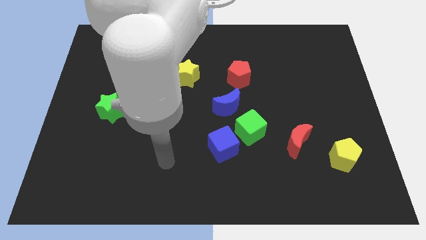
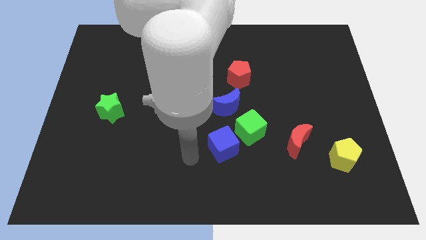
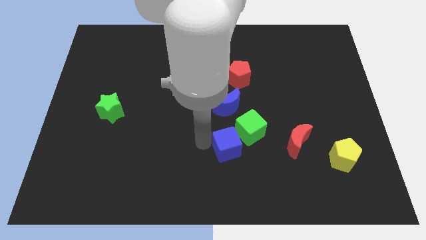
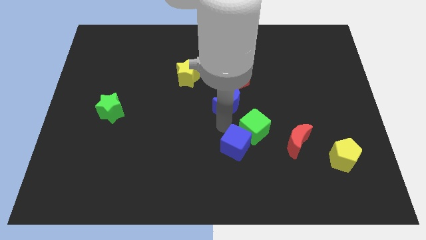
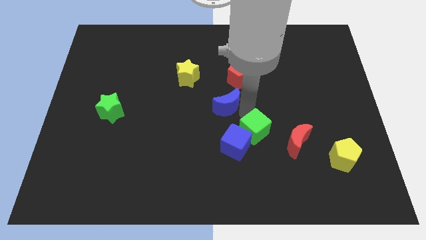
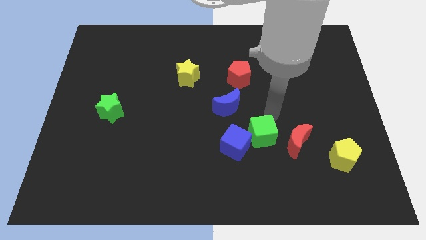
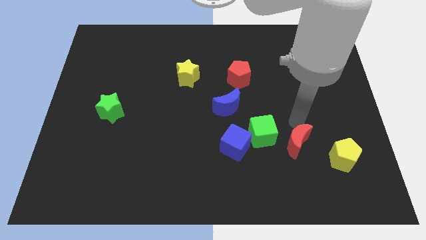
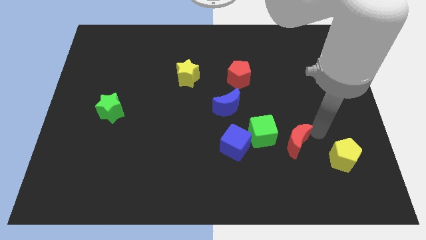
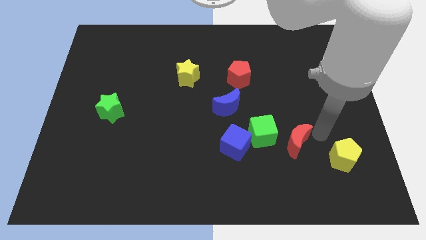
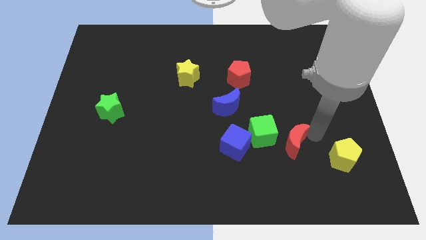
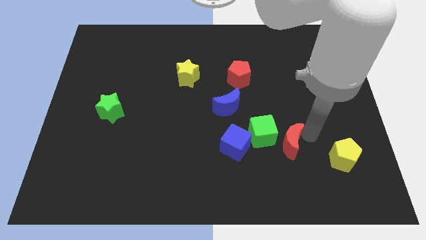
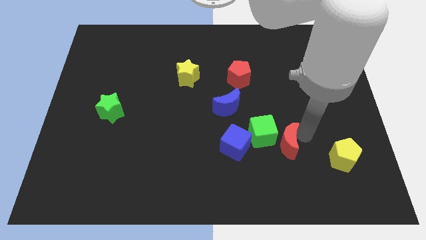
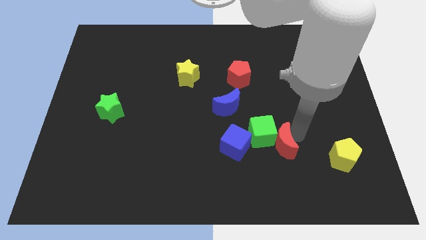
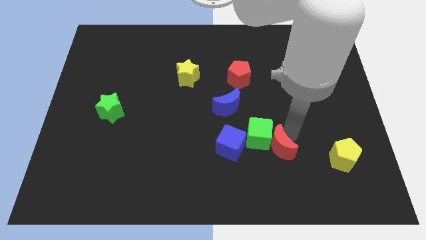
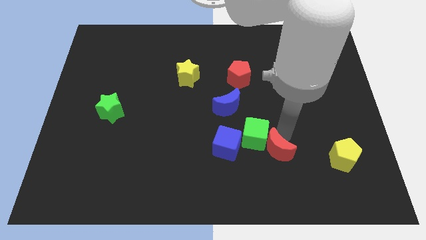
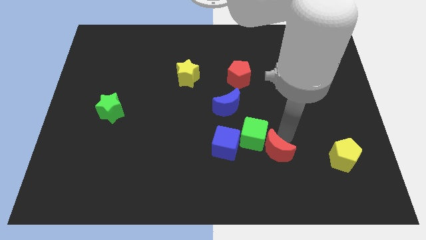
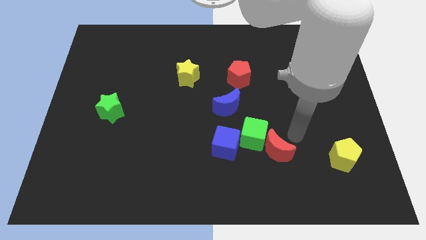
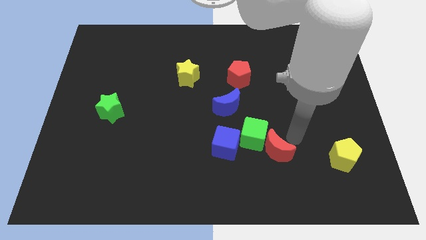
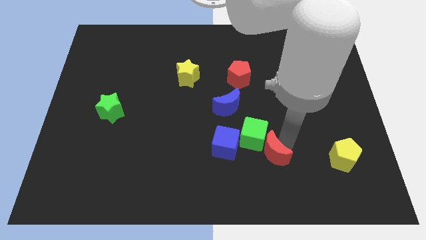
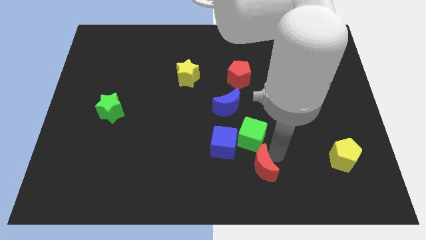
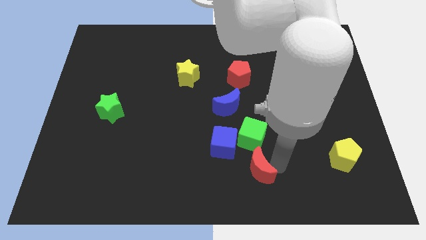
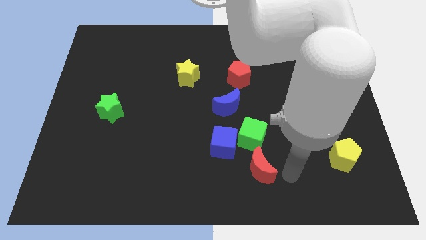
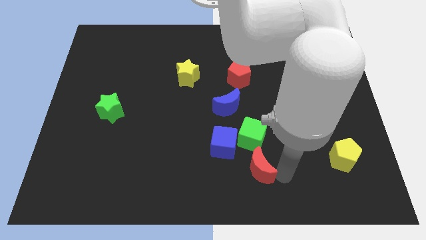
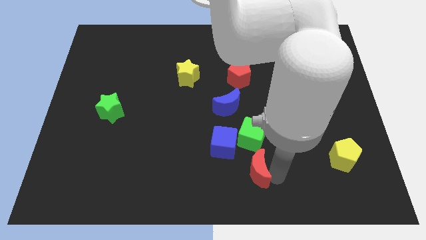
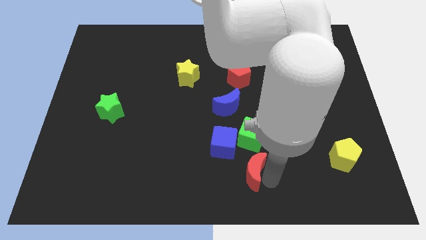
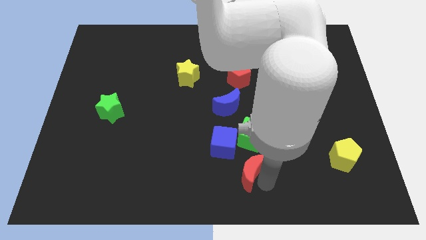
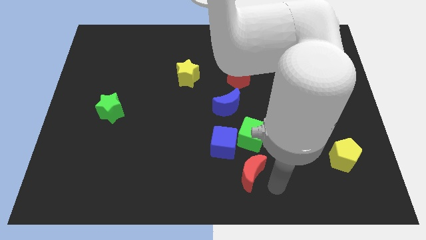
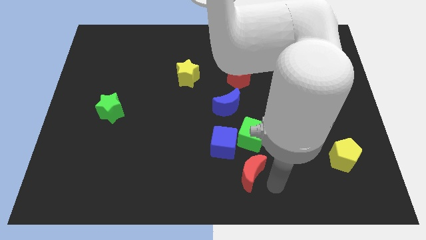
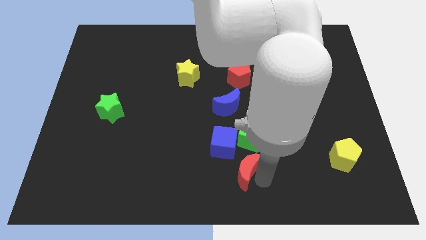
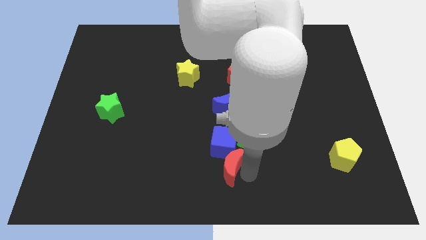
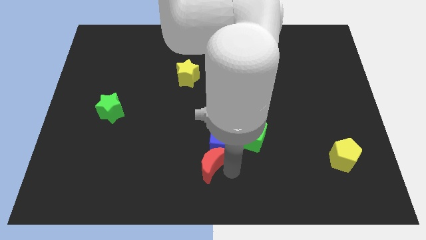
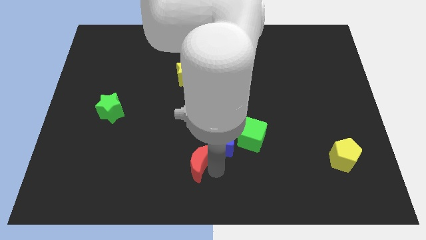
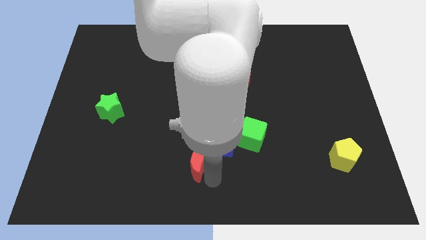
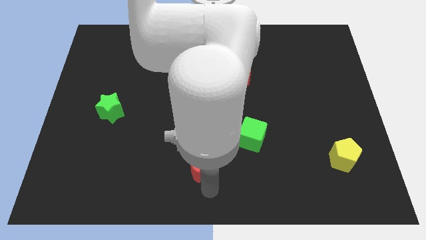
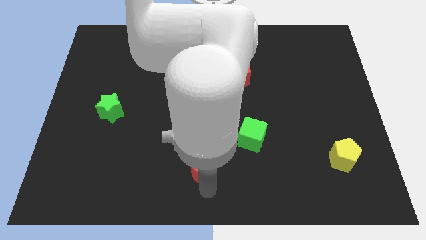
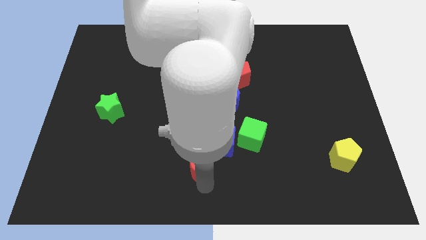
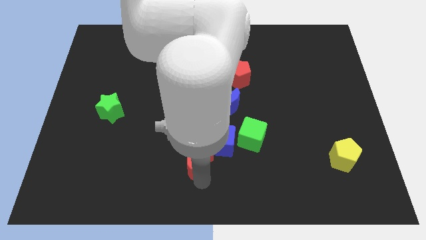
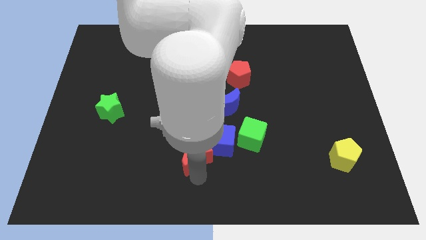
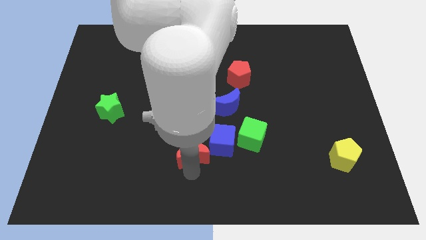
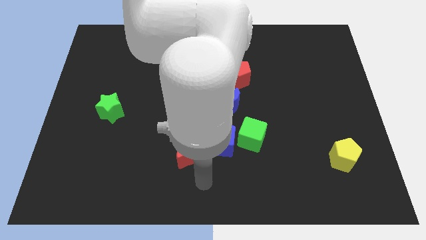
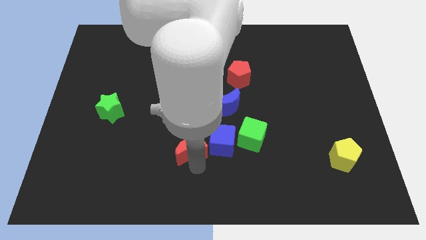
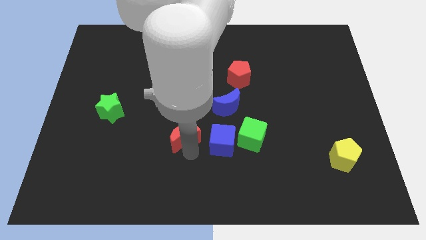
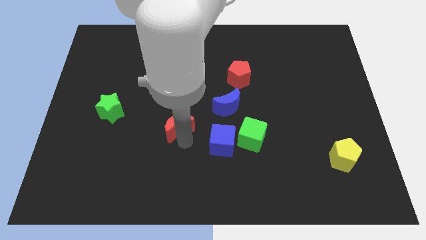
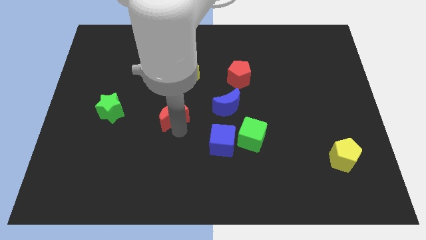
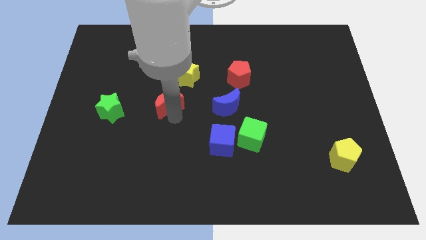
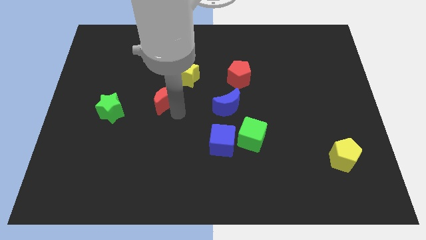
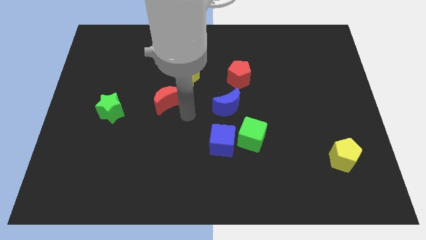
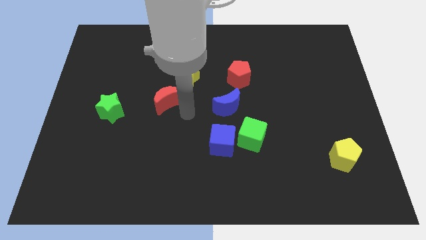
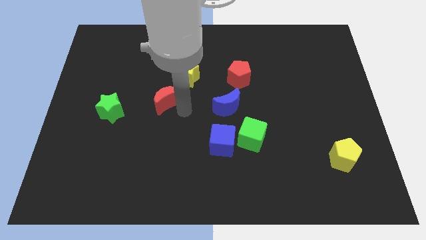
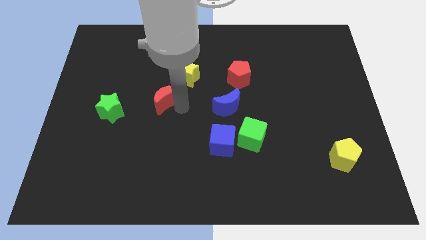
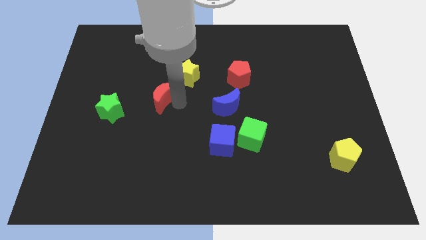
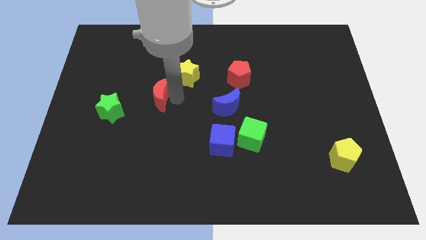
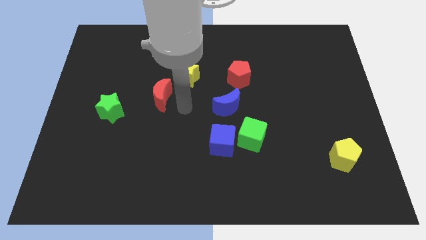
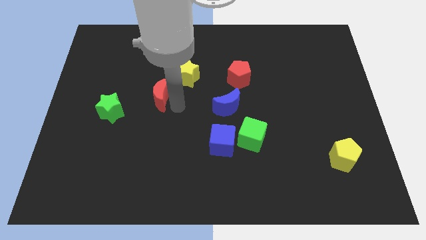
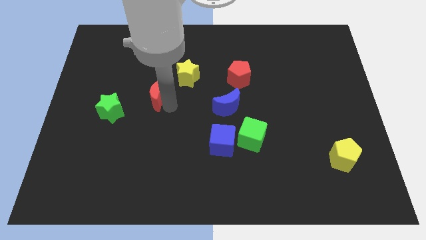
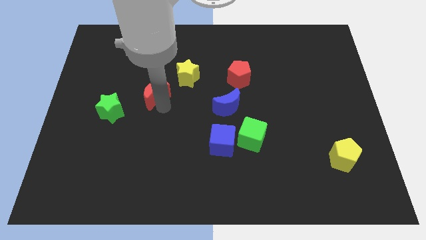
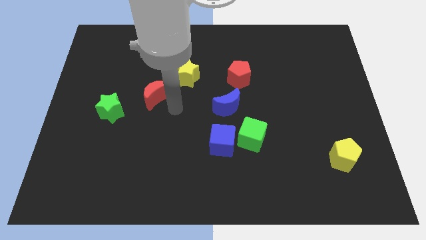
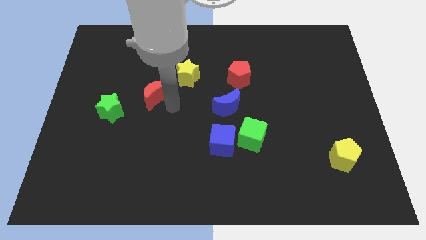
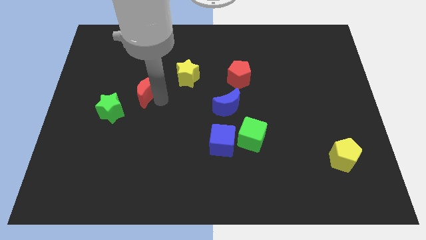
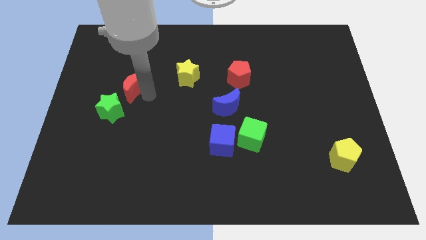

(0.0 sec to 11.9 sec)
put the red moon to the top side of the green star

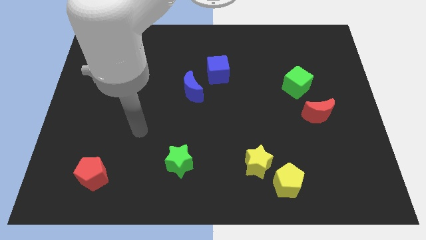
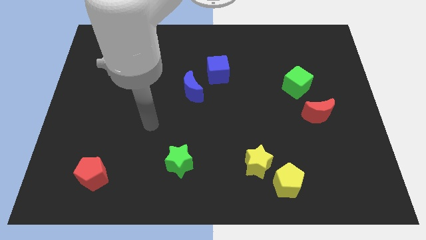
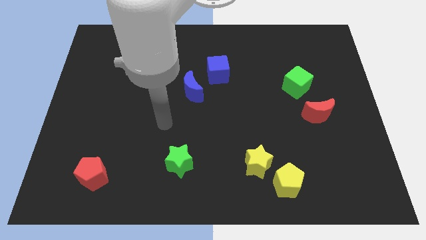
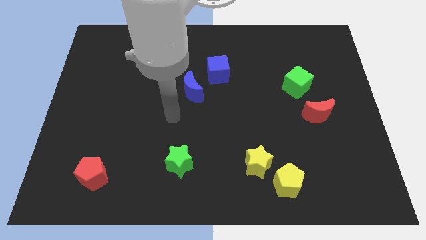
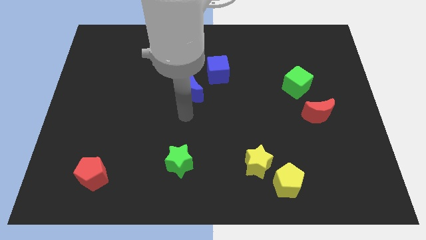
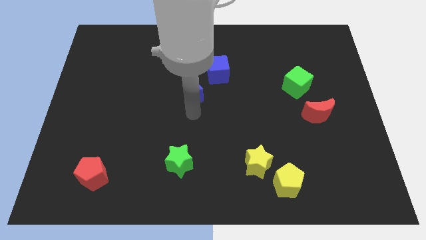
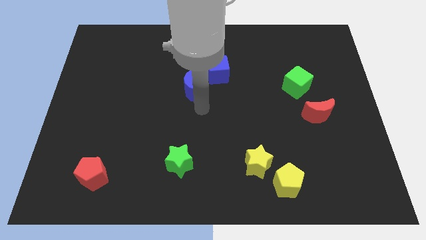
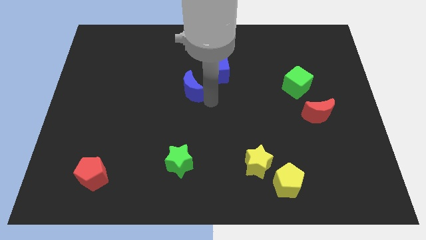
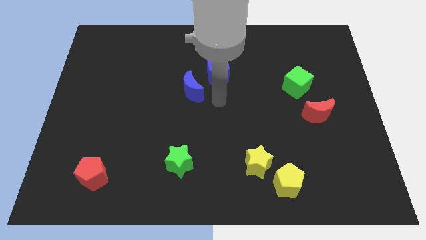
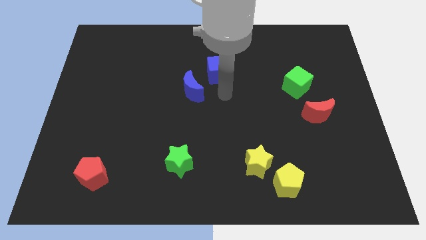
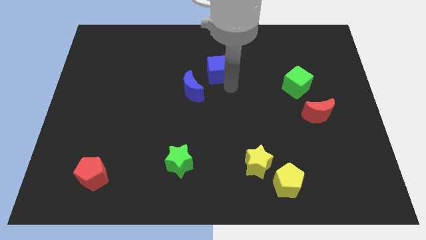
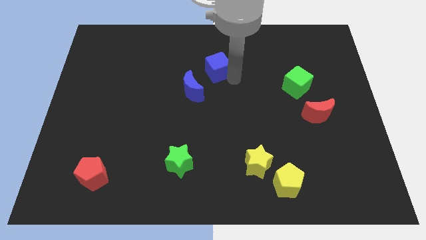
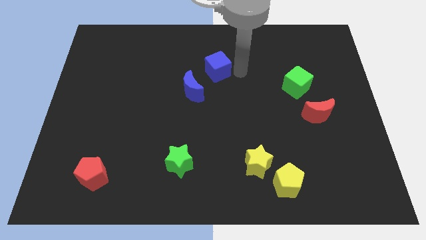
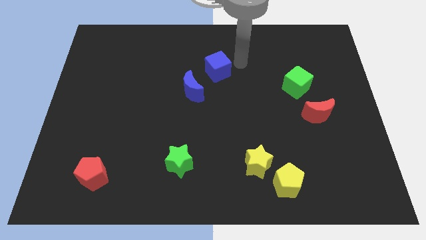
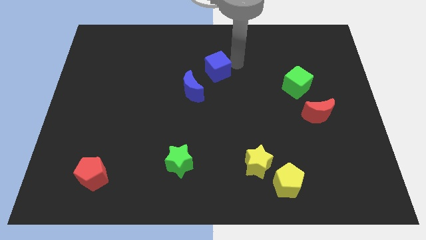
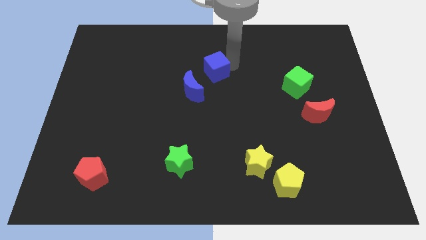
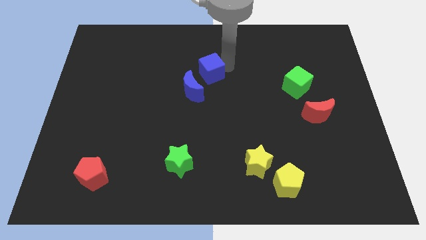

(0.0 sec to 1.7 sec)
slide the blue cube above the blue moon
